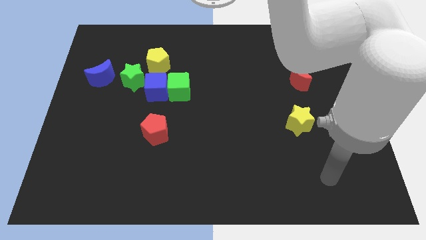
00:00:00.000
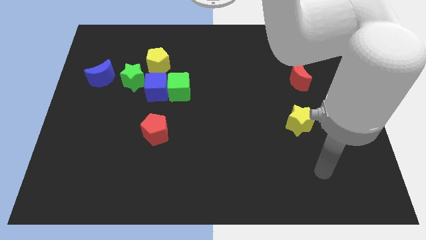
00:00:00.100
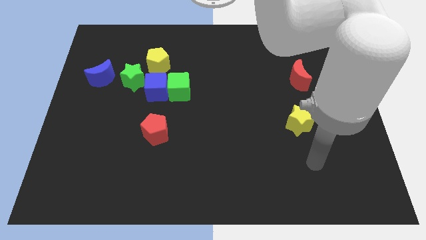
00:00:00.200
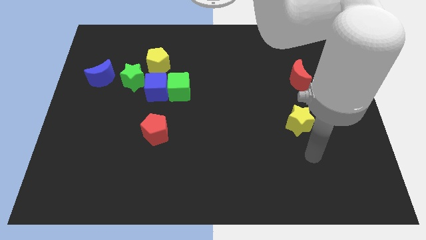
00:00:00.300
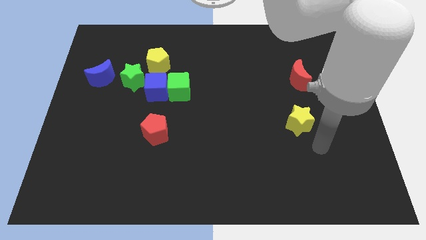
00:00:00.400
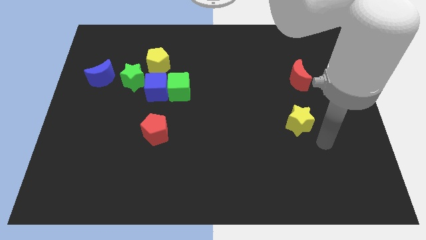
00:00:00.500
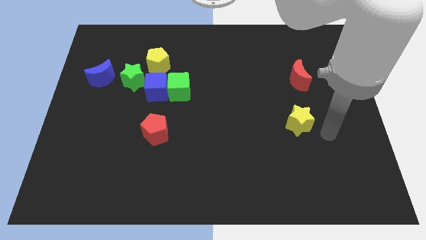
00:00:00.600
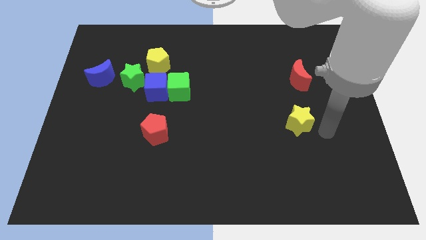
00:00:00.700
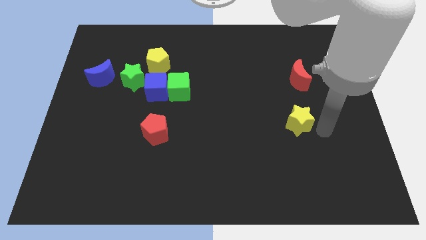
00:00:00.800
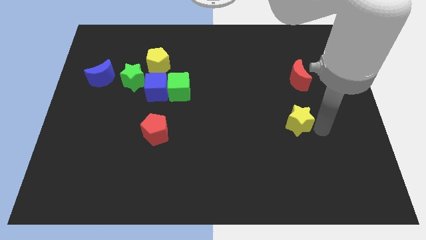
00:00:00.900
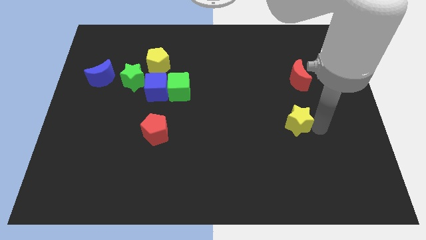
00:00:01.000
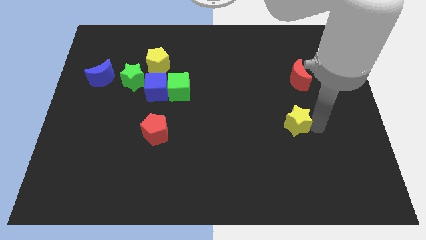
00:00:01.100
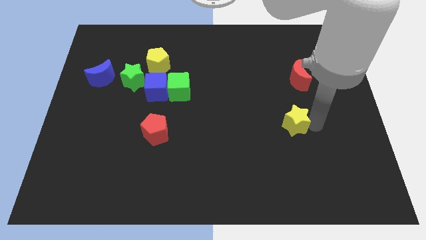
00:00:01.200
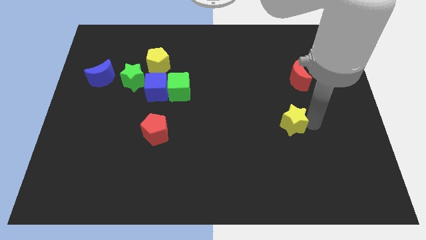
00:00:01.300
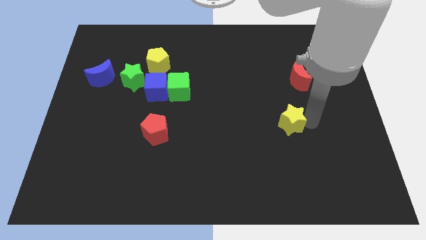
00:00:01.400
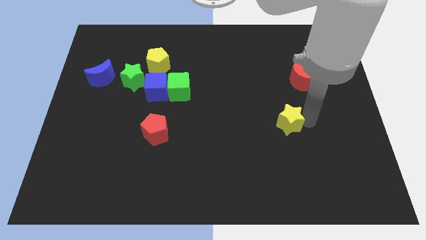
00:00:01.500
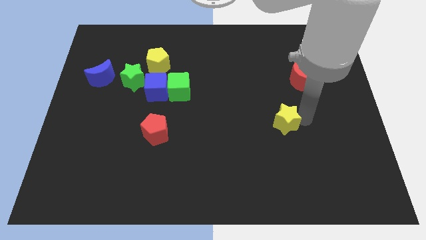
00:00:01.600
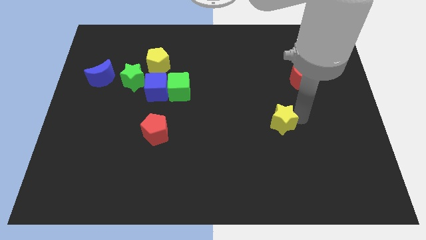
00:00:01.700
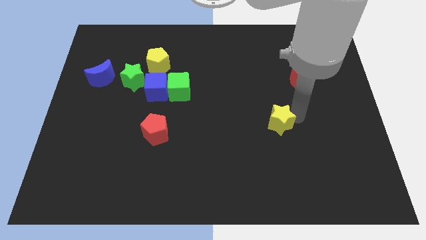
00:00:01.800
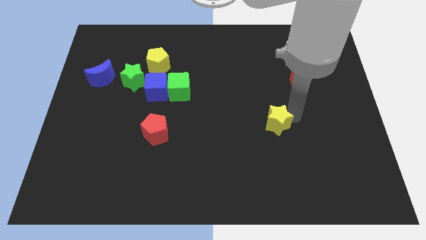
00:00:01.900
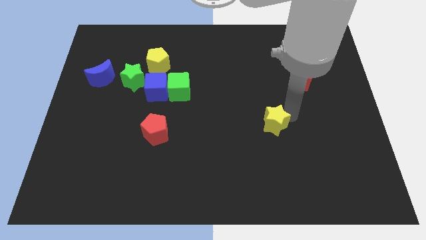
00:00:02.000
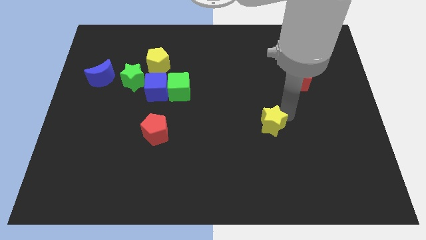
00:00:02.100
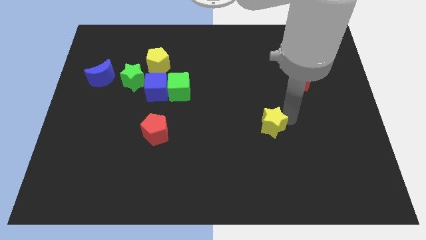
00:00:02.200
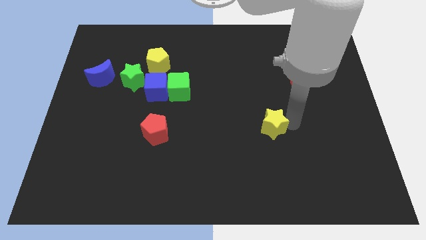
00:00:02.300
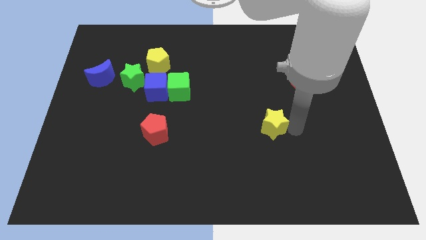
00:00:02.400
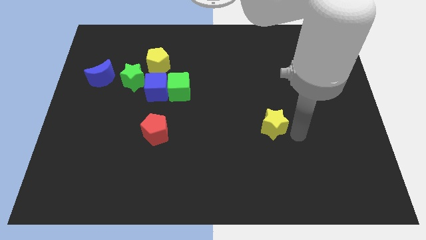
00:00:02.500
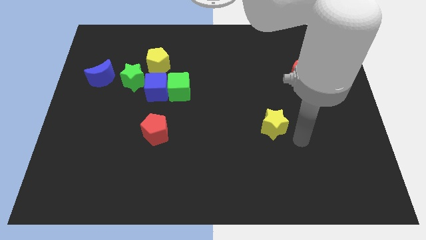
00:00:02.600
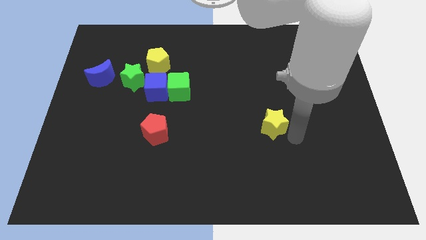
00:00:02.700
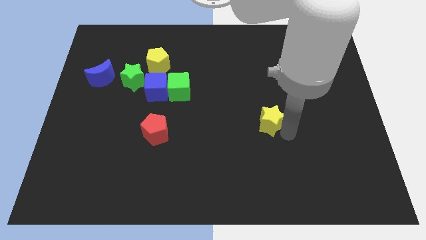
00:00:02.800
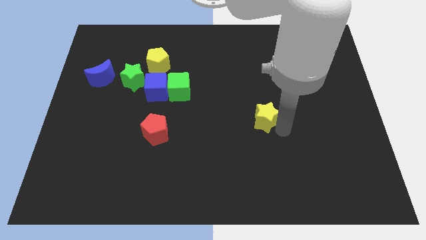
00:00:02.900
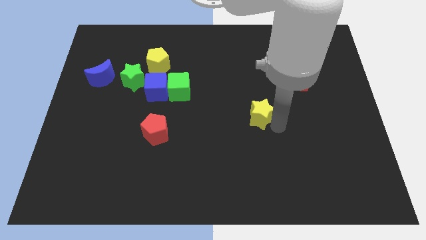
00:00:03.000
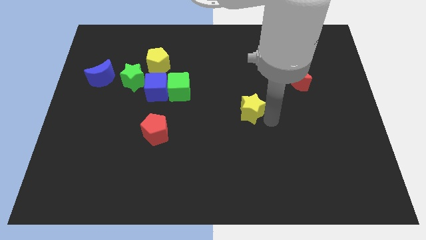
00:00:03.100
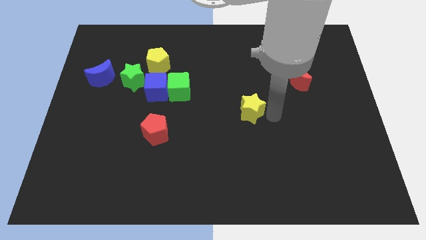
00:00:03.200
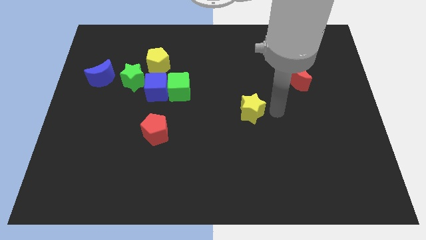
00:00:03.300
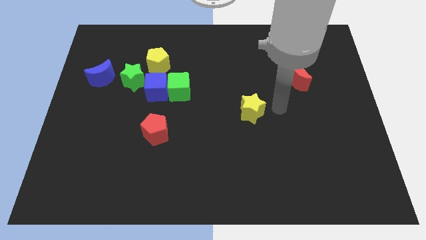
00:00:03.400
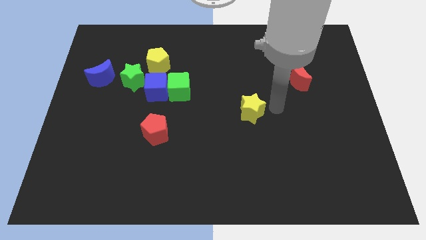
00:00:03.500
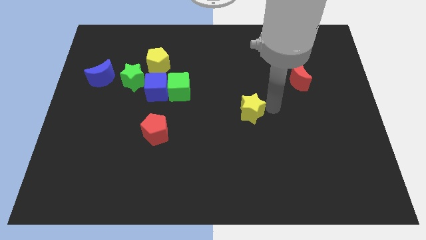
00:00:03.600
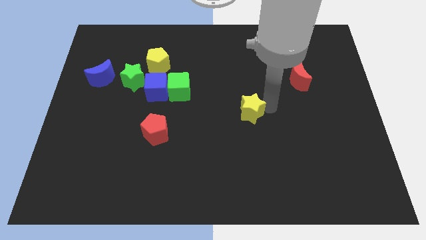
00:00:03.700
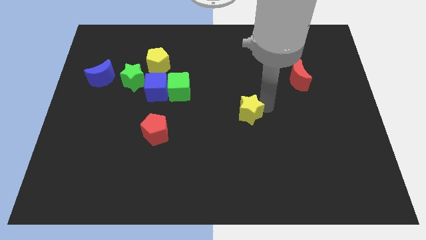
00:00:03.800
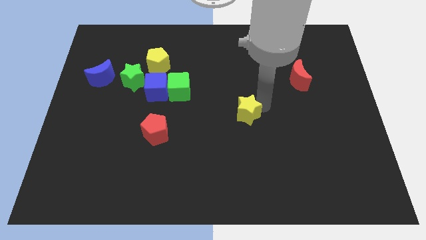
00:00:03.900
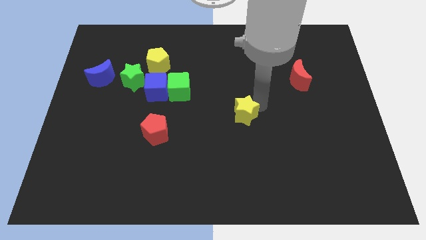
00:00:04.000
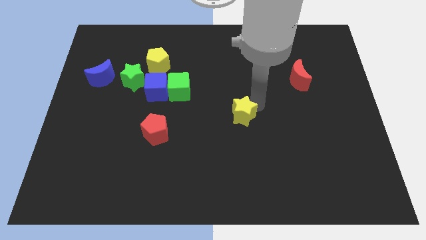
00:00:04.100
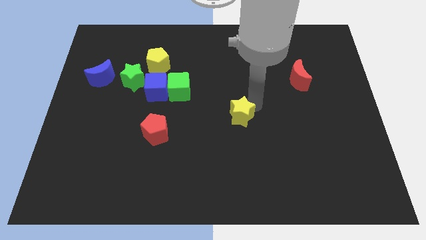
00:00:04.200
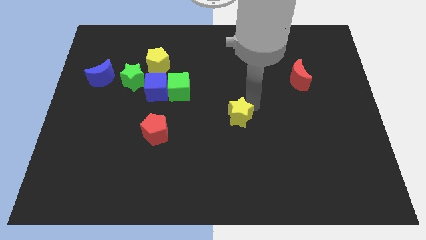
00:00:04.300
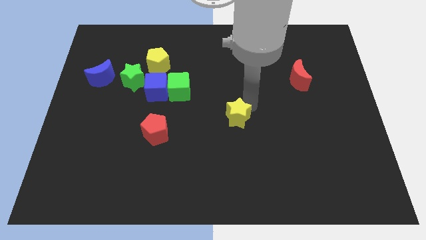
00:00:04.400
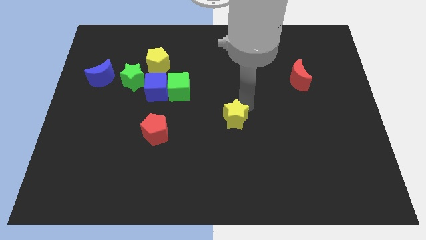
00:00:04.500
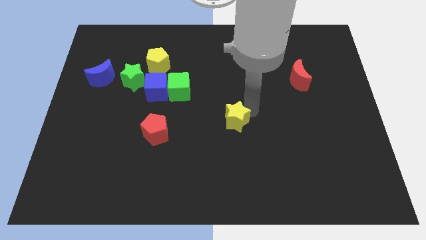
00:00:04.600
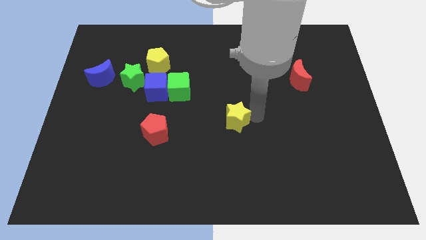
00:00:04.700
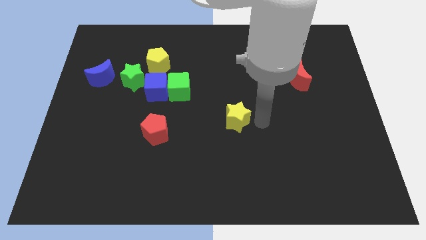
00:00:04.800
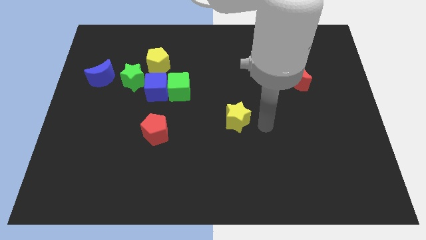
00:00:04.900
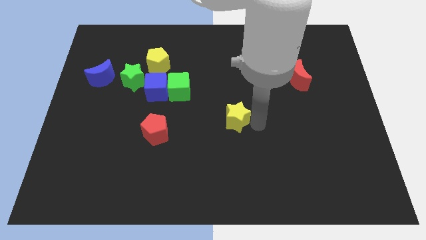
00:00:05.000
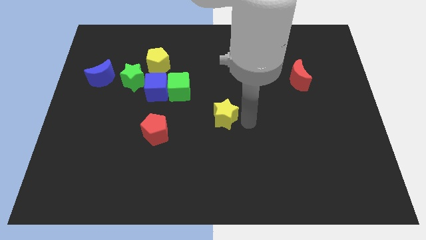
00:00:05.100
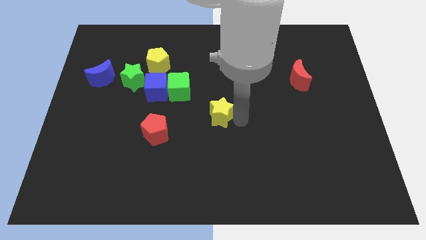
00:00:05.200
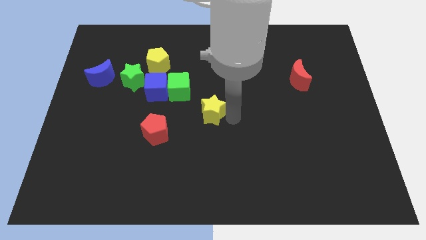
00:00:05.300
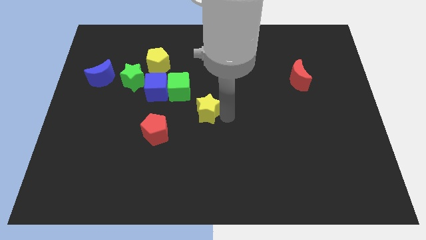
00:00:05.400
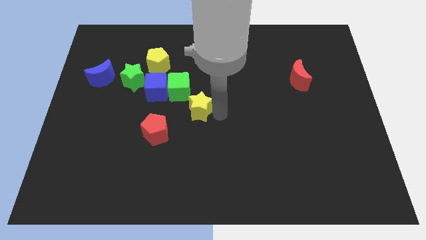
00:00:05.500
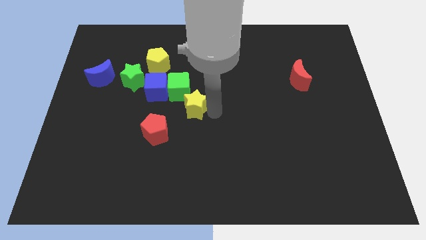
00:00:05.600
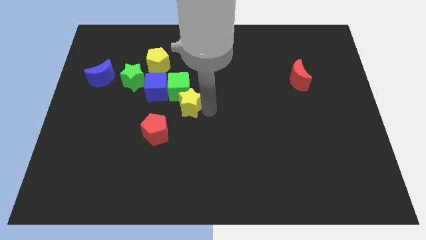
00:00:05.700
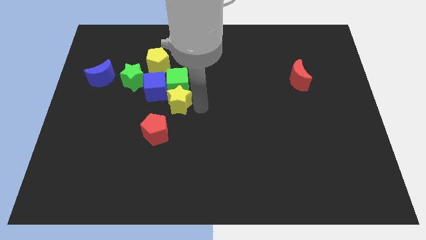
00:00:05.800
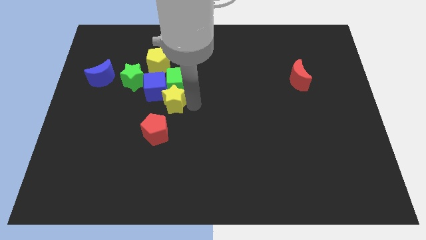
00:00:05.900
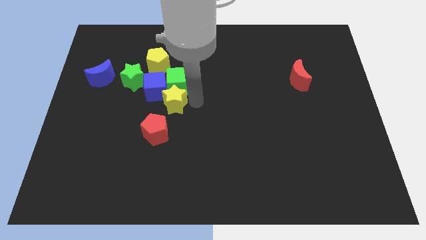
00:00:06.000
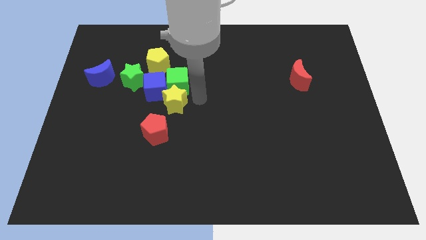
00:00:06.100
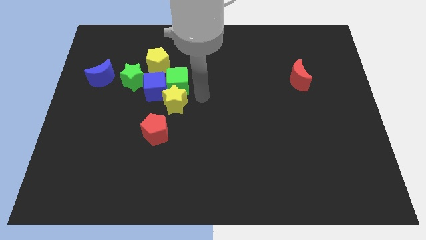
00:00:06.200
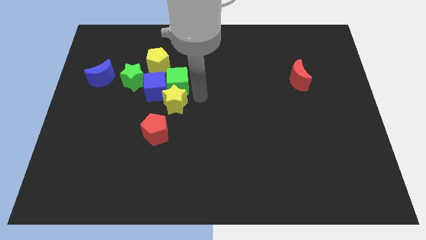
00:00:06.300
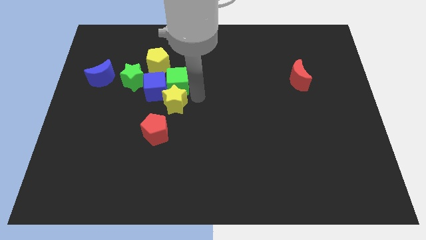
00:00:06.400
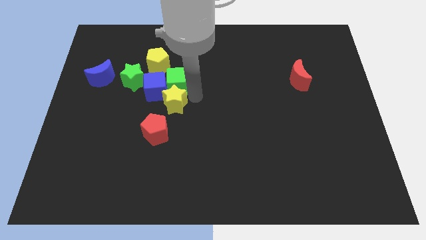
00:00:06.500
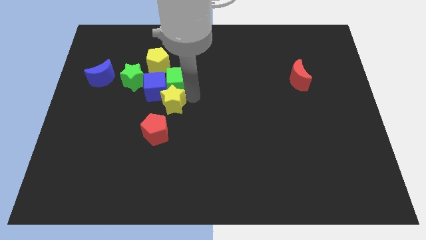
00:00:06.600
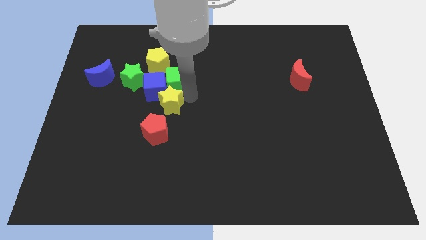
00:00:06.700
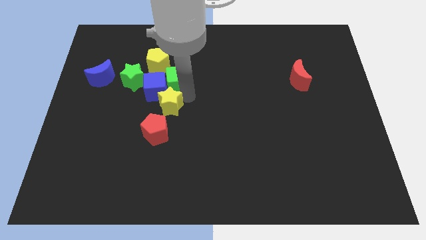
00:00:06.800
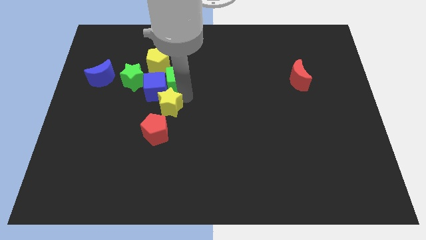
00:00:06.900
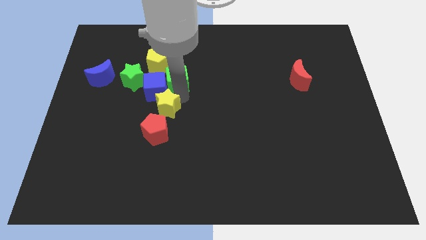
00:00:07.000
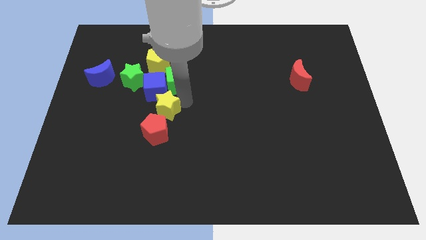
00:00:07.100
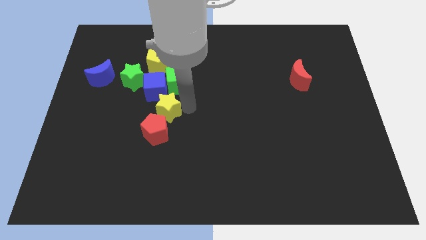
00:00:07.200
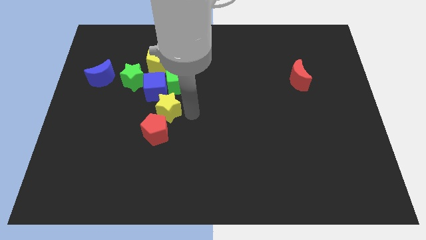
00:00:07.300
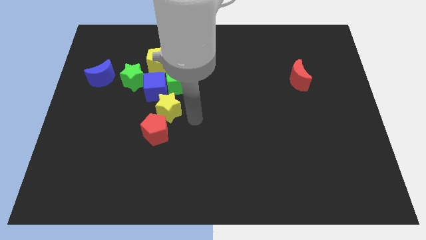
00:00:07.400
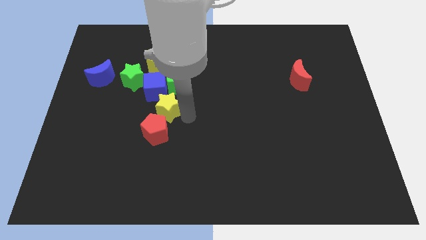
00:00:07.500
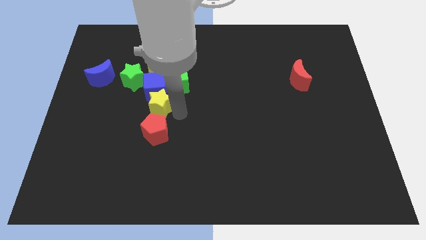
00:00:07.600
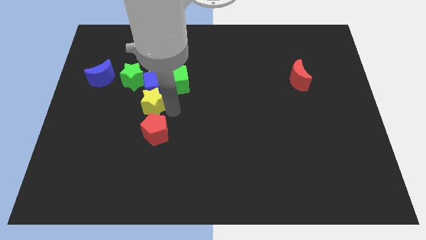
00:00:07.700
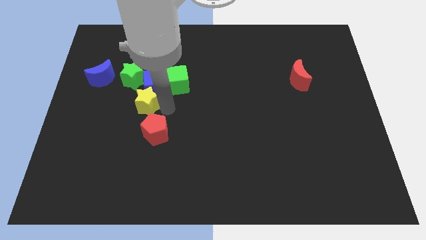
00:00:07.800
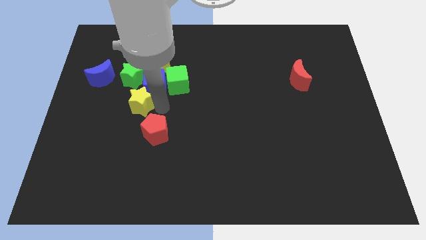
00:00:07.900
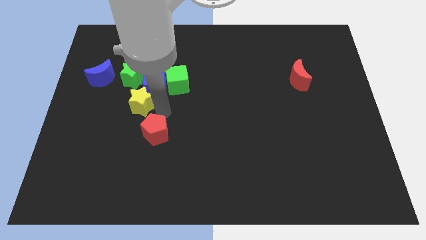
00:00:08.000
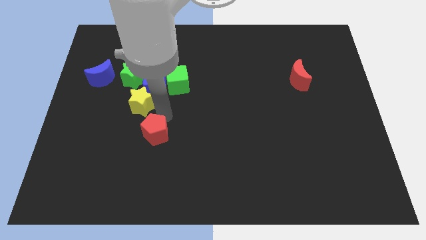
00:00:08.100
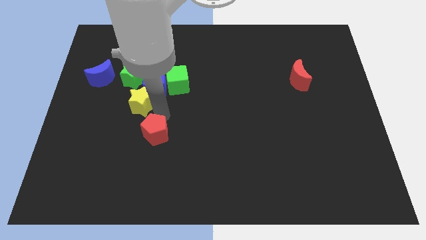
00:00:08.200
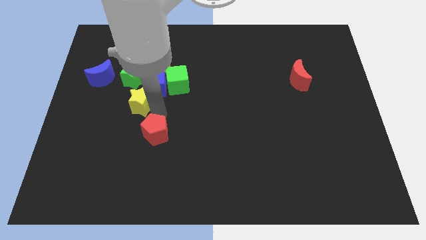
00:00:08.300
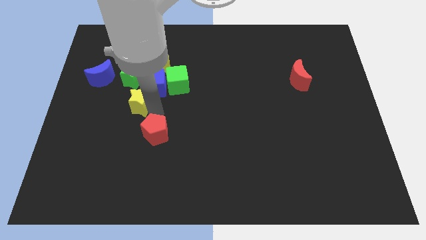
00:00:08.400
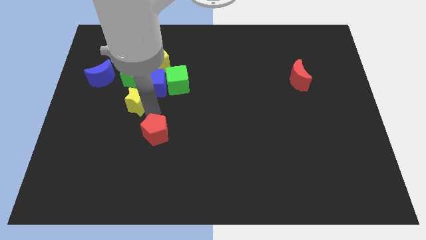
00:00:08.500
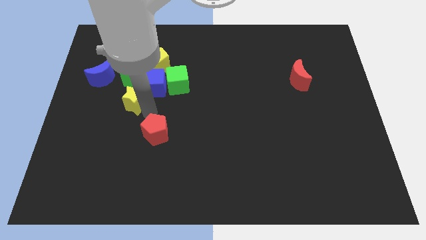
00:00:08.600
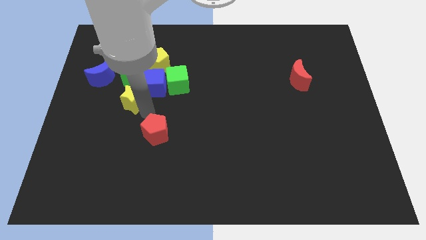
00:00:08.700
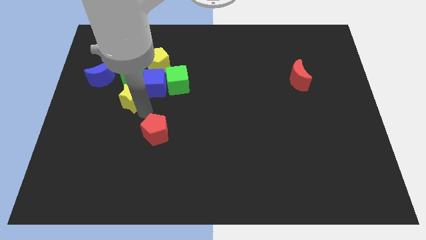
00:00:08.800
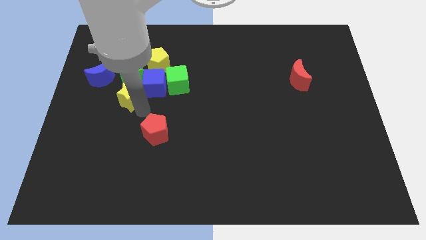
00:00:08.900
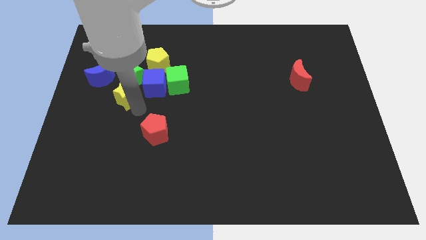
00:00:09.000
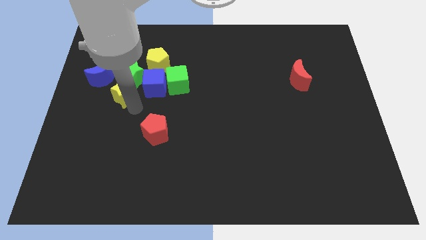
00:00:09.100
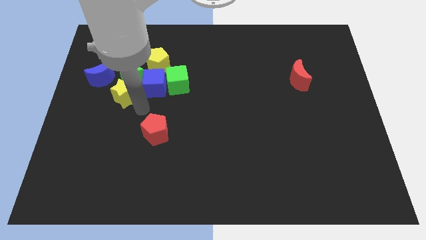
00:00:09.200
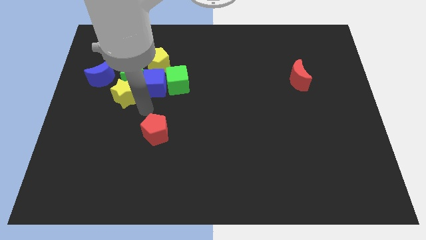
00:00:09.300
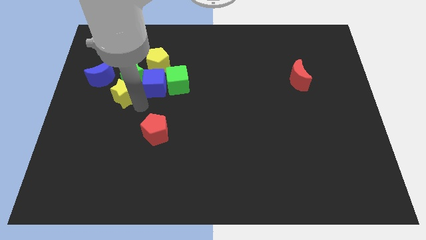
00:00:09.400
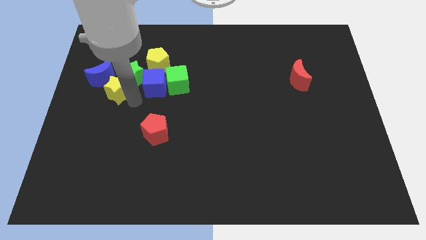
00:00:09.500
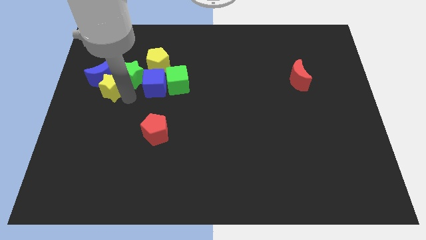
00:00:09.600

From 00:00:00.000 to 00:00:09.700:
move the yellow star to the blue moon
